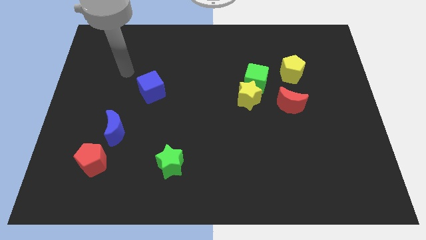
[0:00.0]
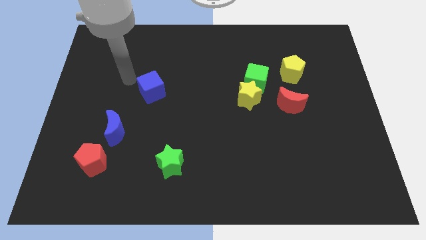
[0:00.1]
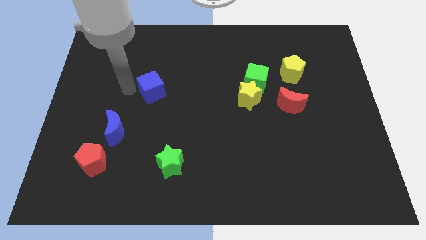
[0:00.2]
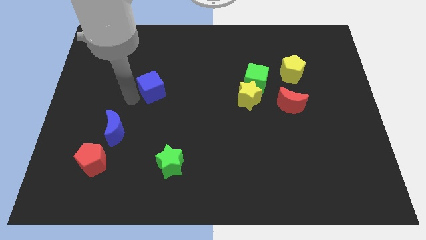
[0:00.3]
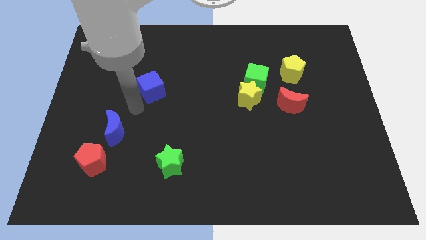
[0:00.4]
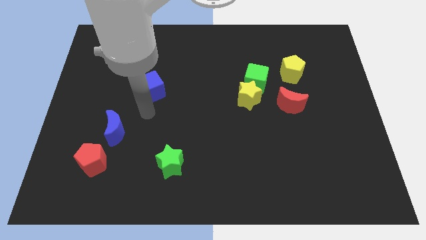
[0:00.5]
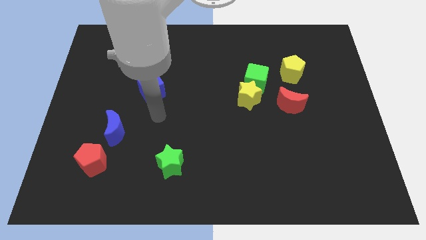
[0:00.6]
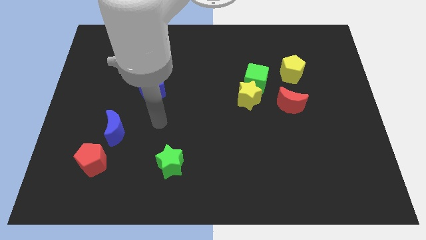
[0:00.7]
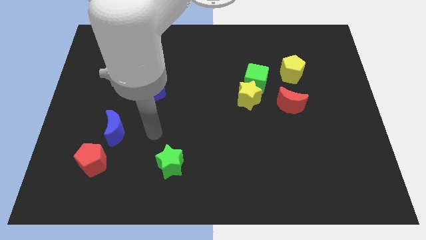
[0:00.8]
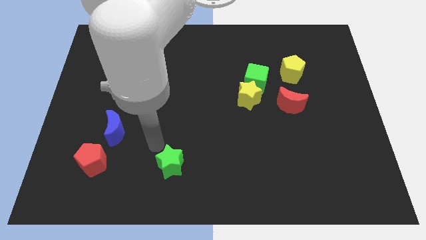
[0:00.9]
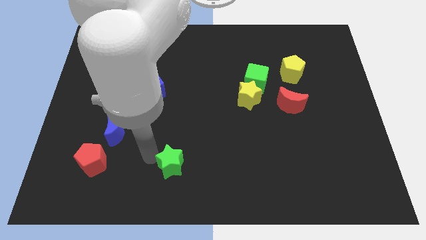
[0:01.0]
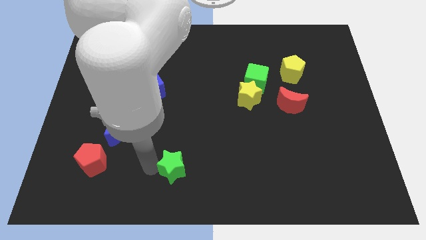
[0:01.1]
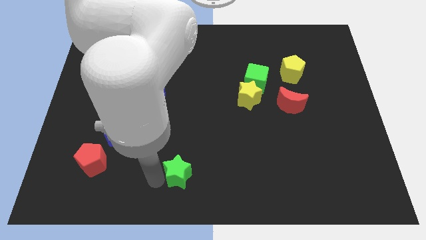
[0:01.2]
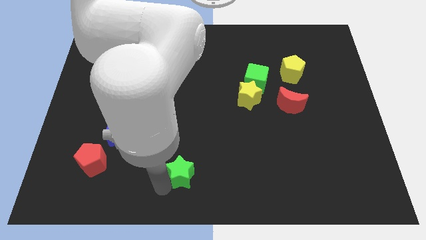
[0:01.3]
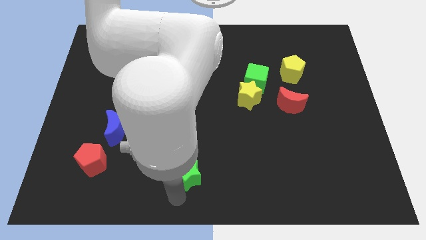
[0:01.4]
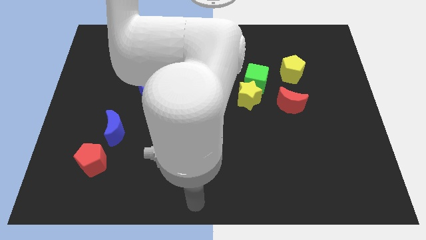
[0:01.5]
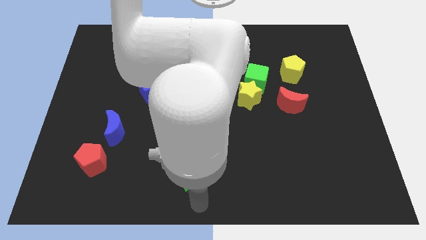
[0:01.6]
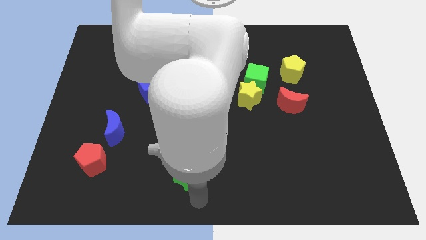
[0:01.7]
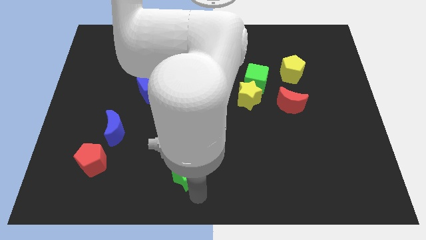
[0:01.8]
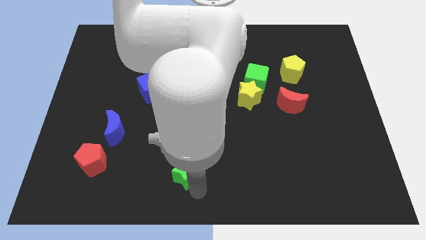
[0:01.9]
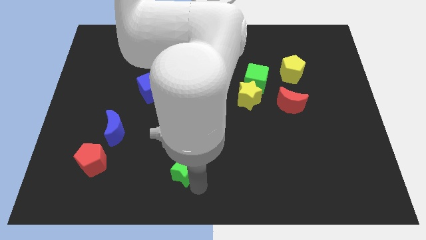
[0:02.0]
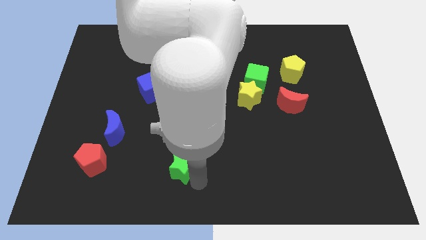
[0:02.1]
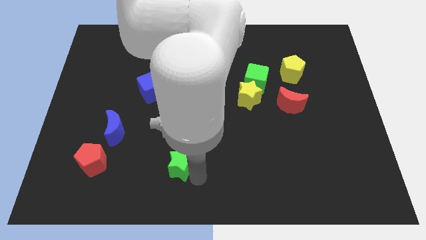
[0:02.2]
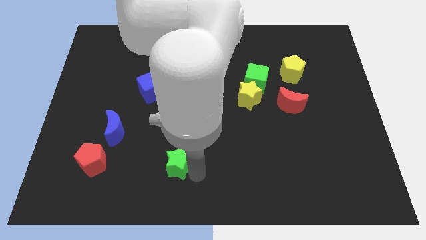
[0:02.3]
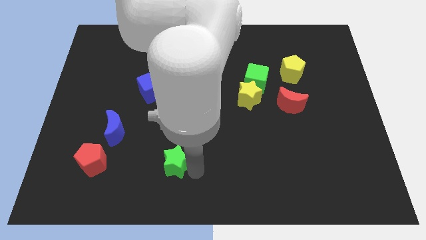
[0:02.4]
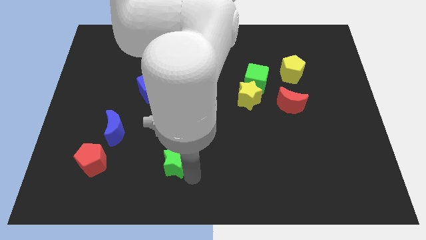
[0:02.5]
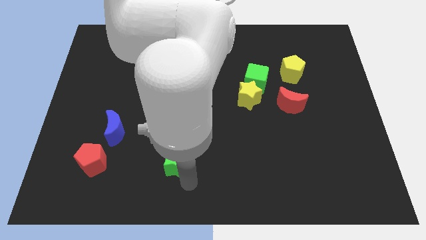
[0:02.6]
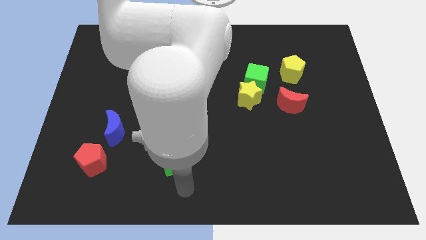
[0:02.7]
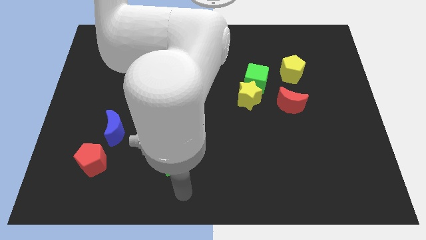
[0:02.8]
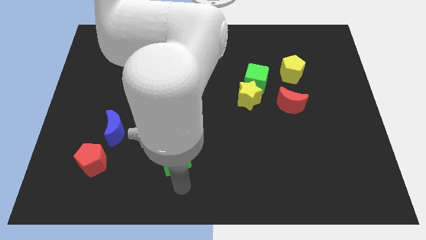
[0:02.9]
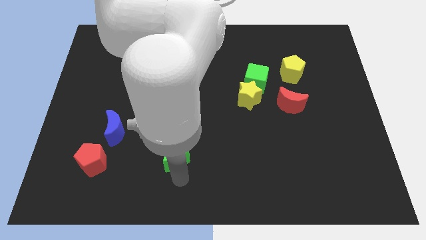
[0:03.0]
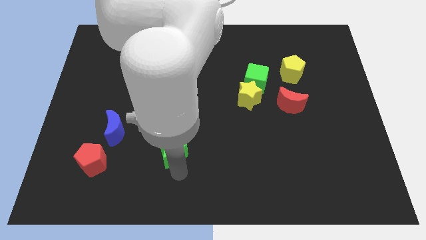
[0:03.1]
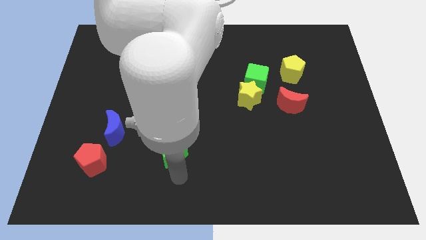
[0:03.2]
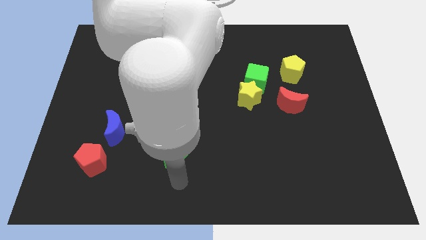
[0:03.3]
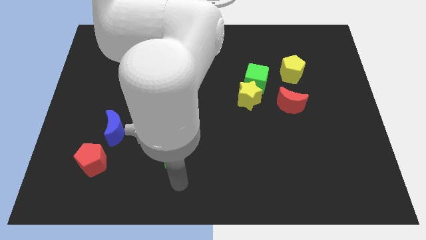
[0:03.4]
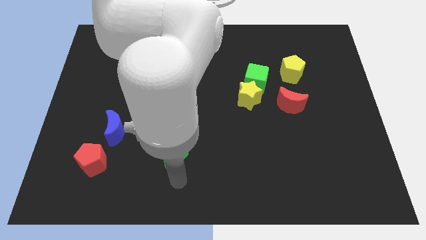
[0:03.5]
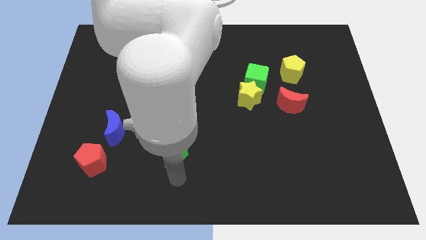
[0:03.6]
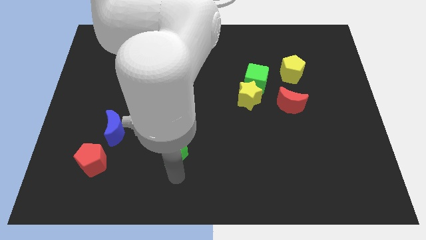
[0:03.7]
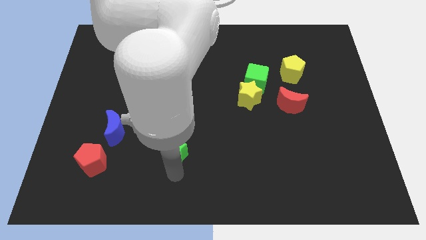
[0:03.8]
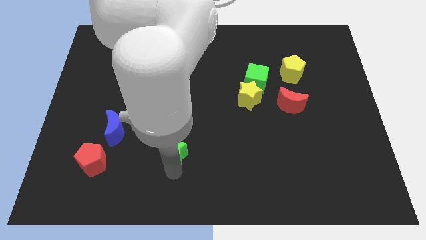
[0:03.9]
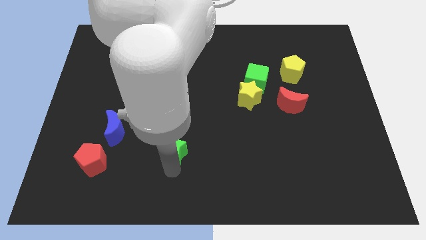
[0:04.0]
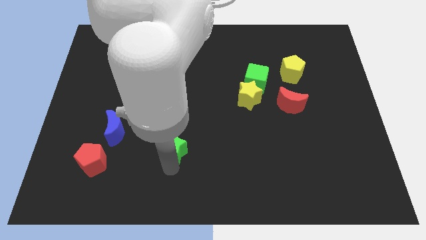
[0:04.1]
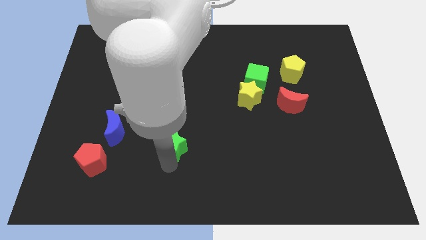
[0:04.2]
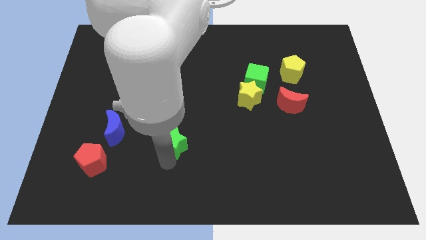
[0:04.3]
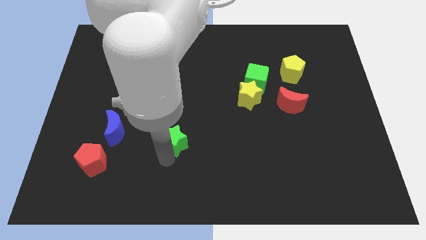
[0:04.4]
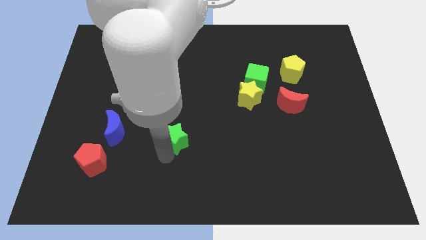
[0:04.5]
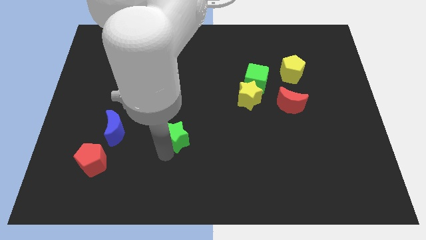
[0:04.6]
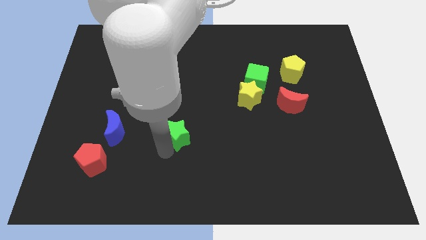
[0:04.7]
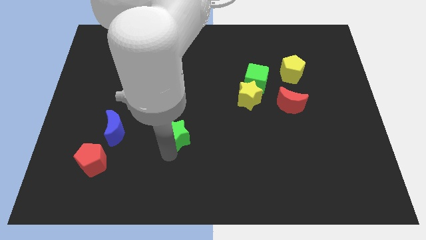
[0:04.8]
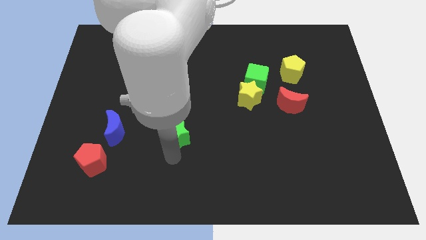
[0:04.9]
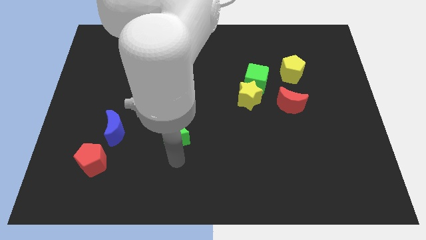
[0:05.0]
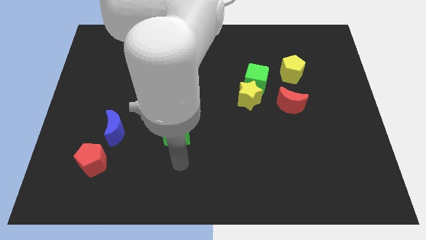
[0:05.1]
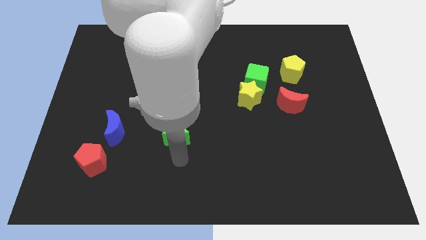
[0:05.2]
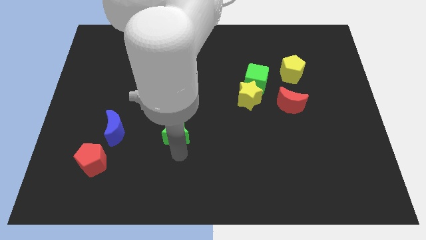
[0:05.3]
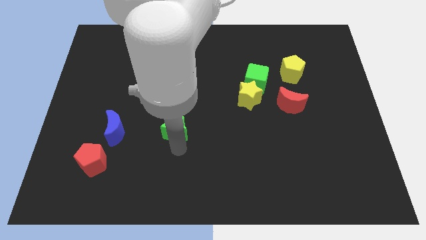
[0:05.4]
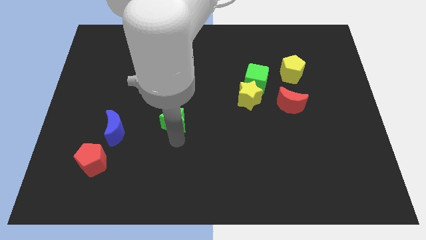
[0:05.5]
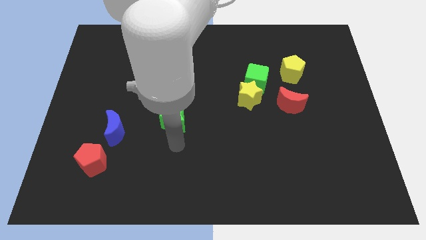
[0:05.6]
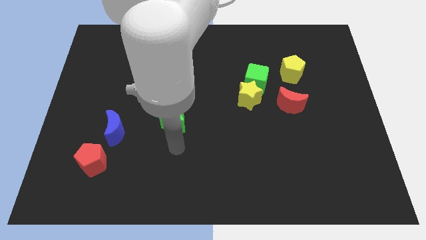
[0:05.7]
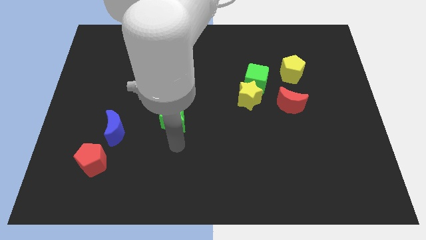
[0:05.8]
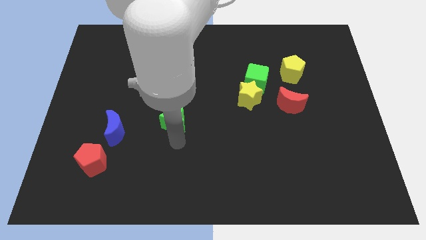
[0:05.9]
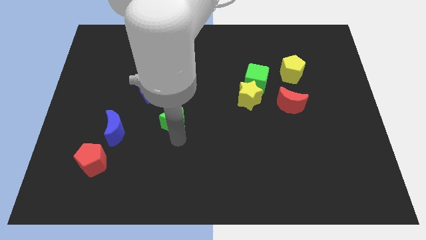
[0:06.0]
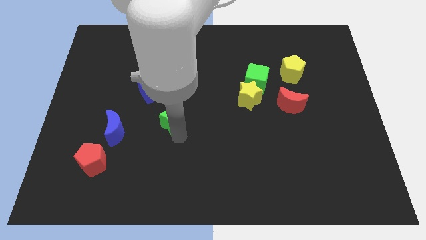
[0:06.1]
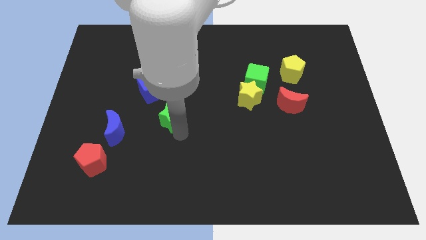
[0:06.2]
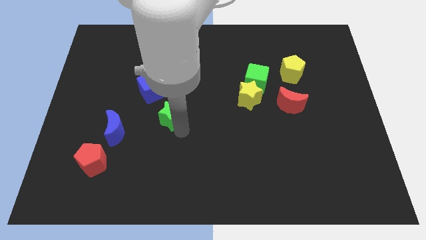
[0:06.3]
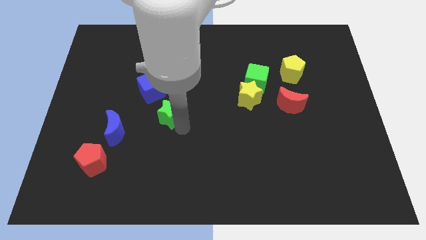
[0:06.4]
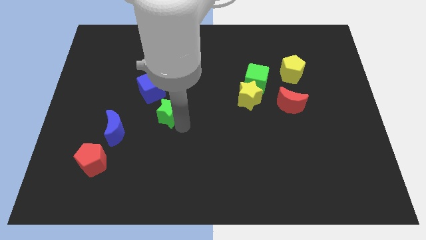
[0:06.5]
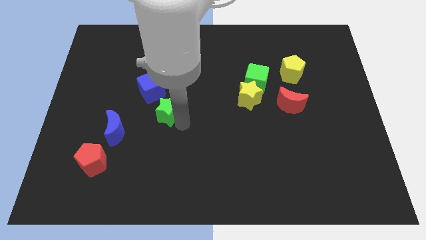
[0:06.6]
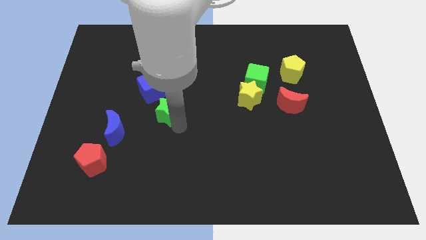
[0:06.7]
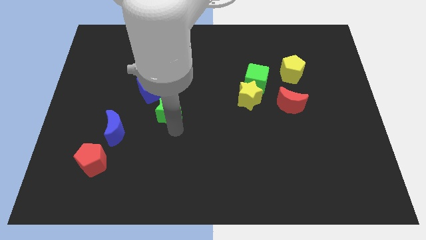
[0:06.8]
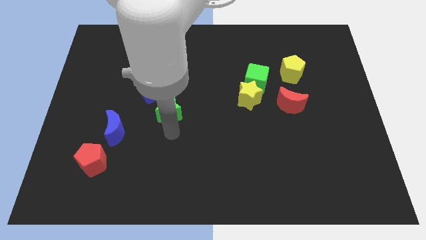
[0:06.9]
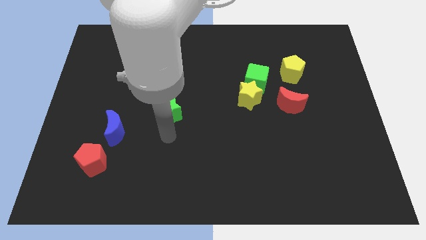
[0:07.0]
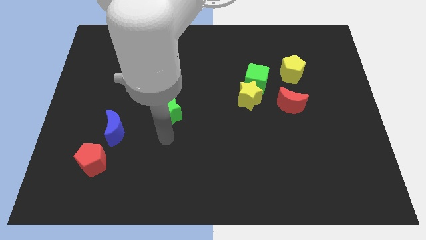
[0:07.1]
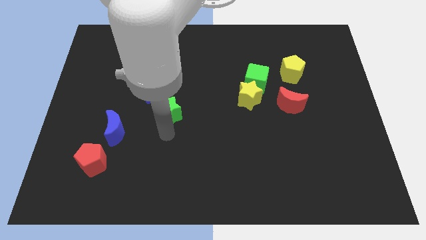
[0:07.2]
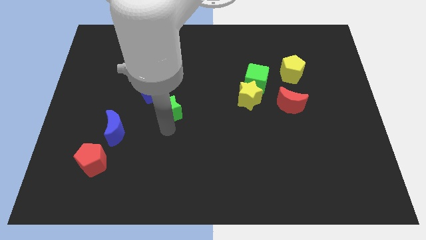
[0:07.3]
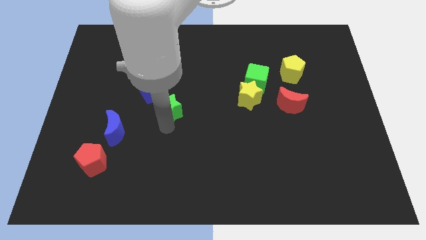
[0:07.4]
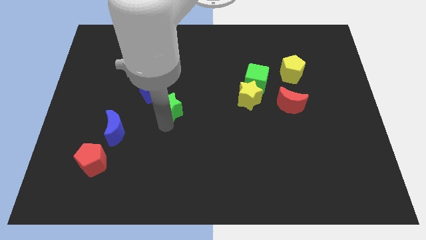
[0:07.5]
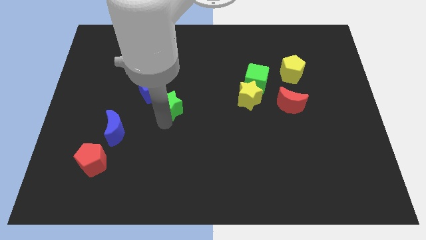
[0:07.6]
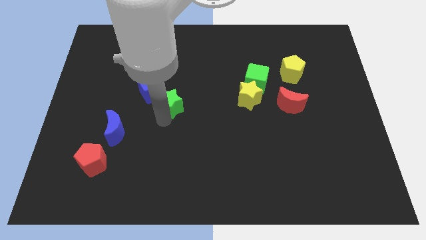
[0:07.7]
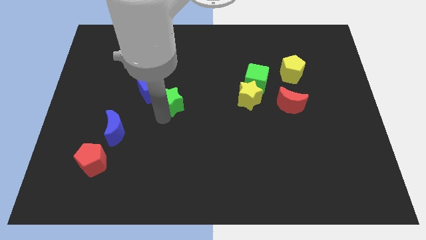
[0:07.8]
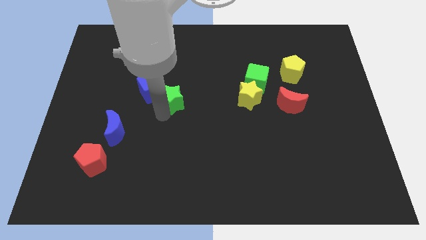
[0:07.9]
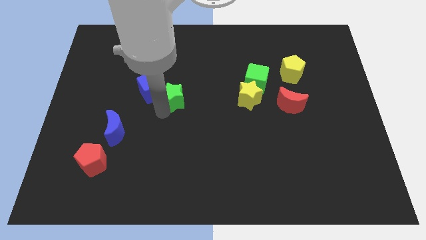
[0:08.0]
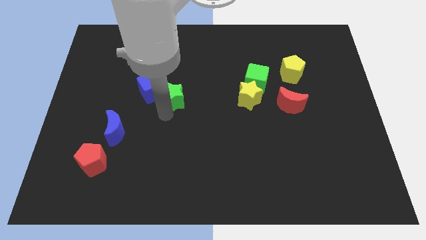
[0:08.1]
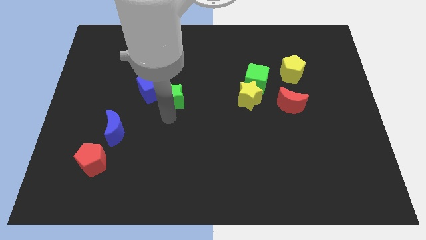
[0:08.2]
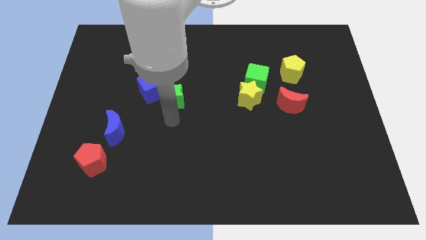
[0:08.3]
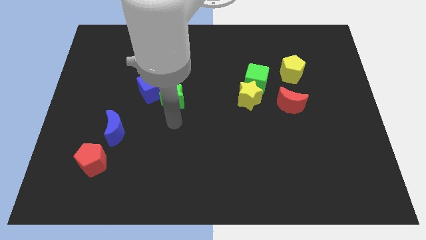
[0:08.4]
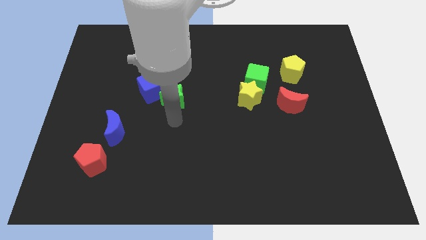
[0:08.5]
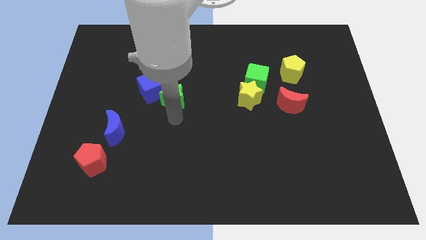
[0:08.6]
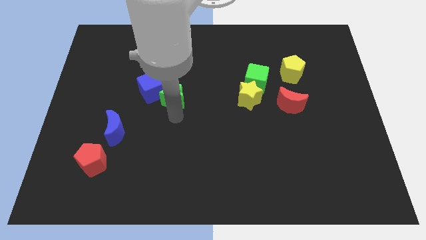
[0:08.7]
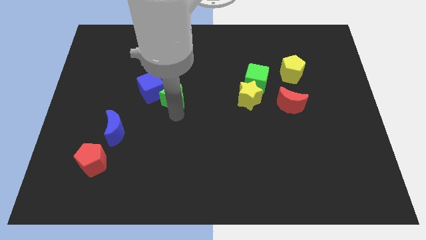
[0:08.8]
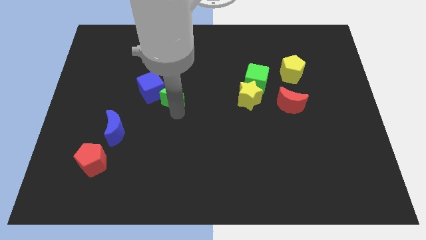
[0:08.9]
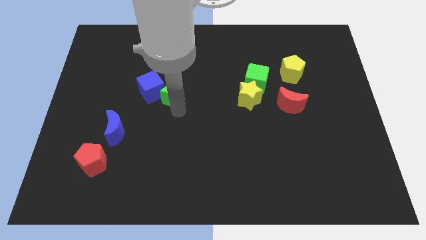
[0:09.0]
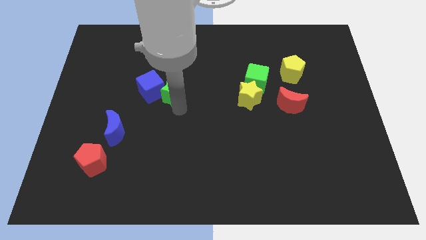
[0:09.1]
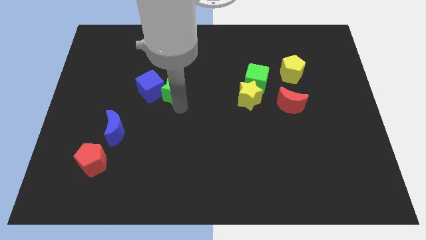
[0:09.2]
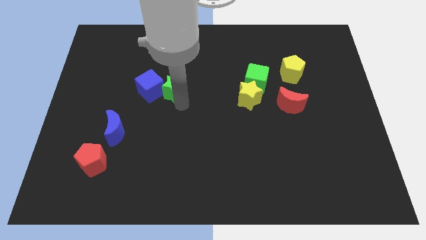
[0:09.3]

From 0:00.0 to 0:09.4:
push the green star up
